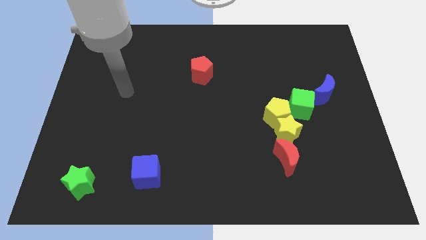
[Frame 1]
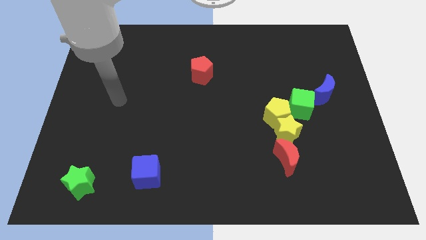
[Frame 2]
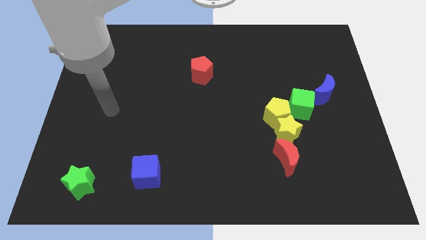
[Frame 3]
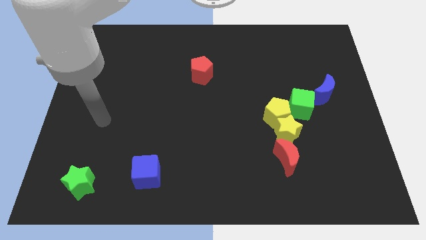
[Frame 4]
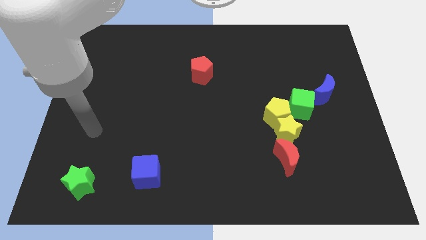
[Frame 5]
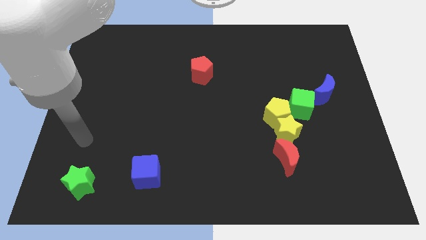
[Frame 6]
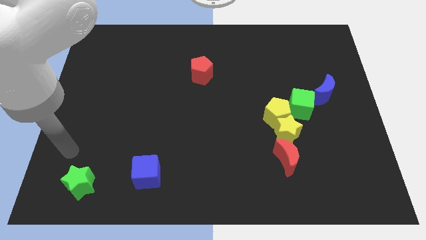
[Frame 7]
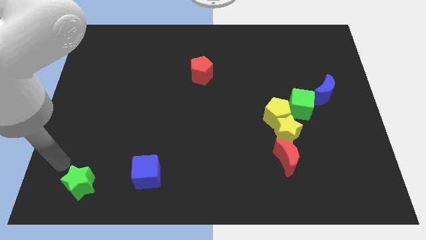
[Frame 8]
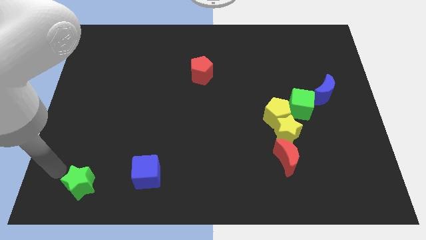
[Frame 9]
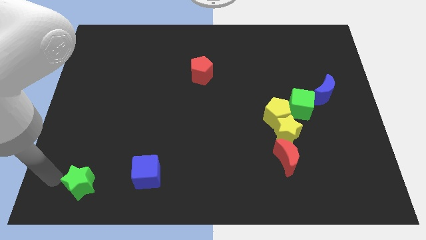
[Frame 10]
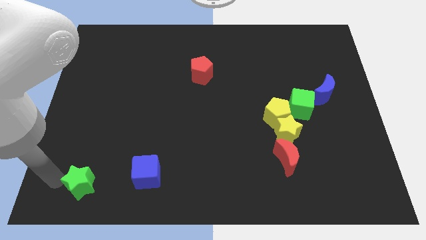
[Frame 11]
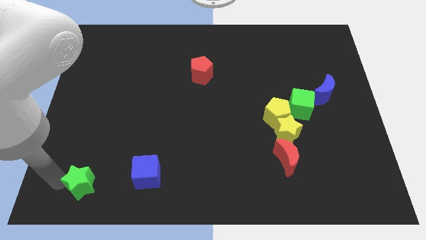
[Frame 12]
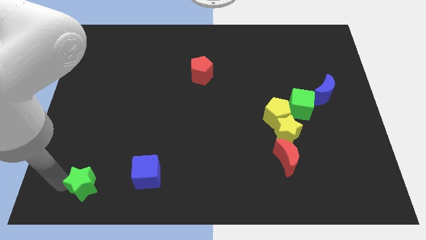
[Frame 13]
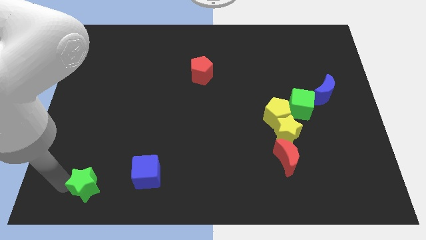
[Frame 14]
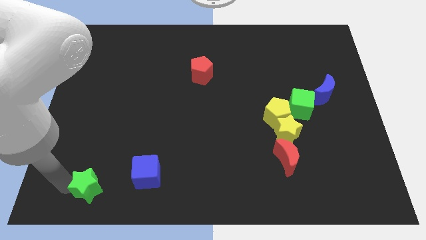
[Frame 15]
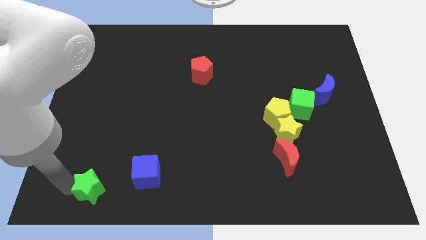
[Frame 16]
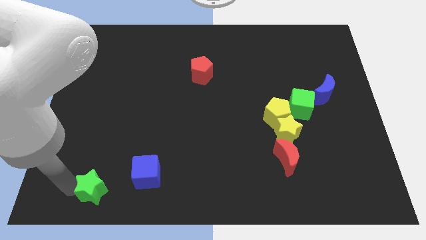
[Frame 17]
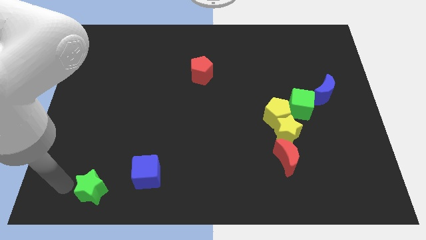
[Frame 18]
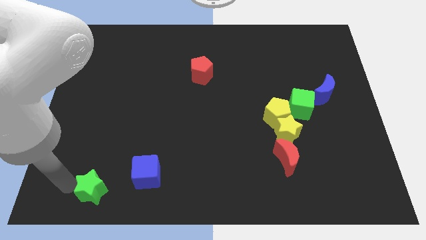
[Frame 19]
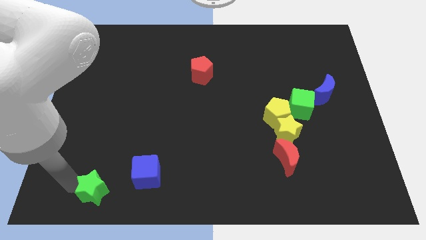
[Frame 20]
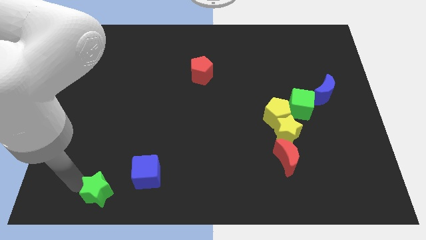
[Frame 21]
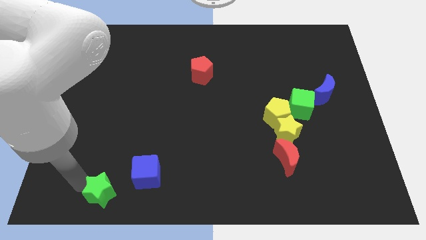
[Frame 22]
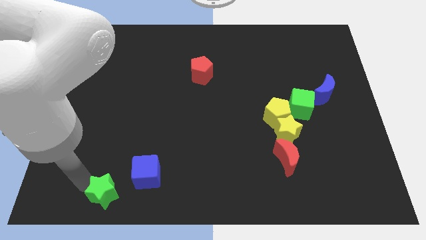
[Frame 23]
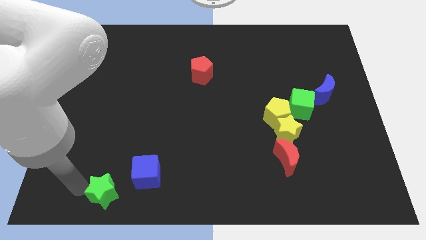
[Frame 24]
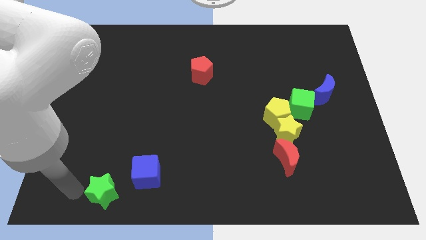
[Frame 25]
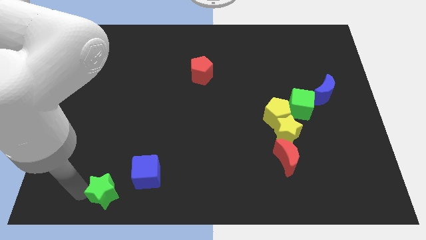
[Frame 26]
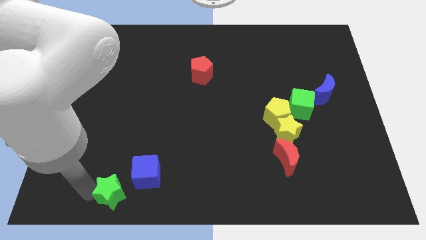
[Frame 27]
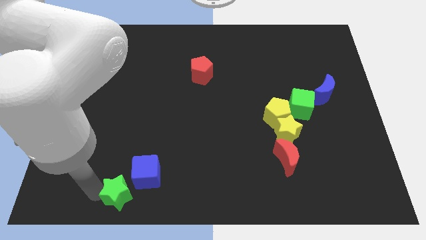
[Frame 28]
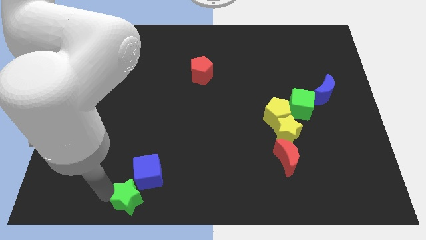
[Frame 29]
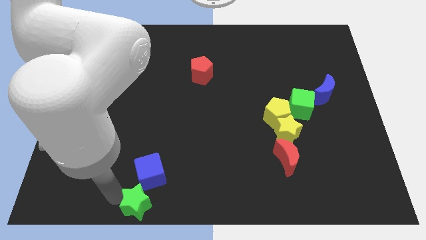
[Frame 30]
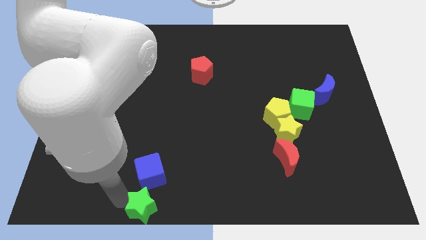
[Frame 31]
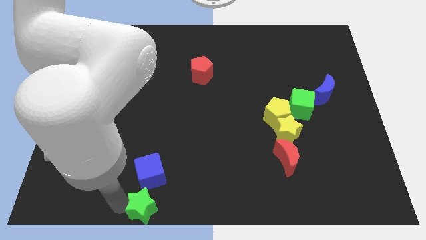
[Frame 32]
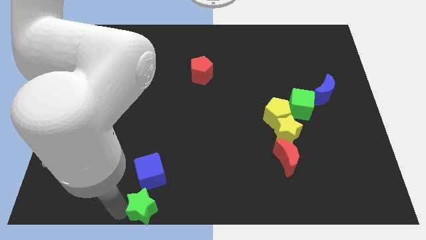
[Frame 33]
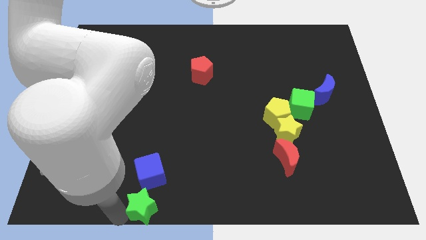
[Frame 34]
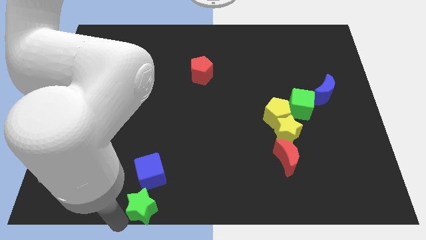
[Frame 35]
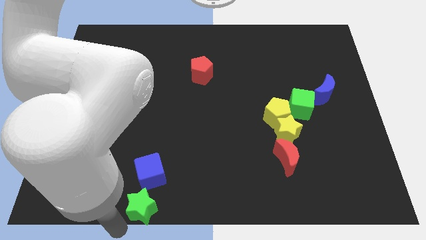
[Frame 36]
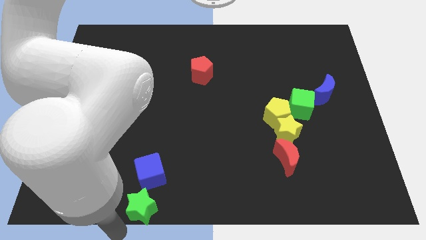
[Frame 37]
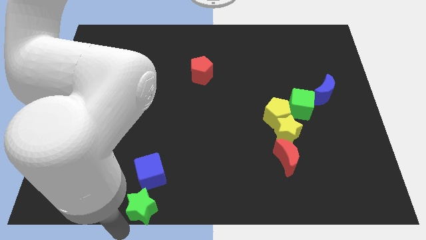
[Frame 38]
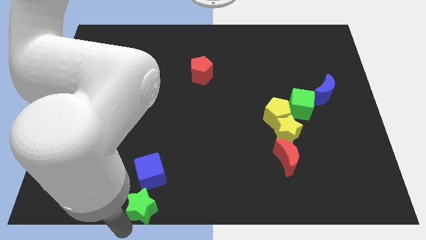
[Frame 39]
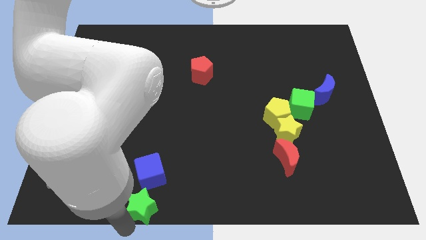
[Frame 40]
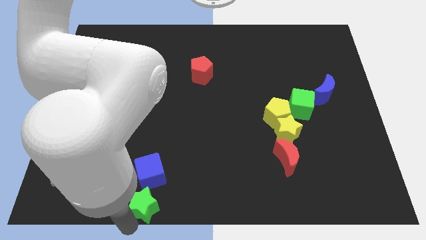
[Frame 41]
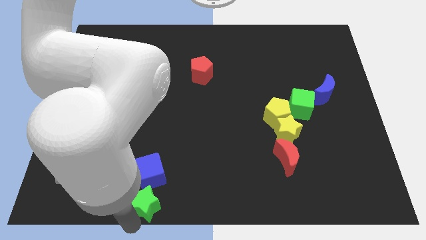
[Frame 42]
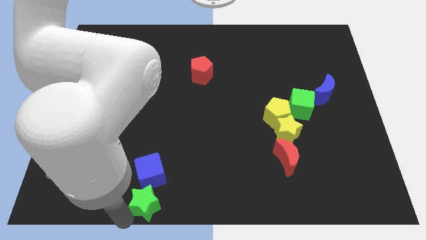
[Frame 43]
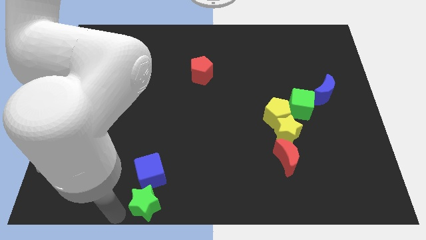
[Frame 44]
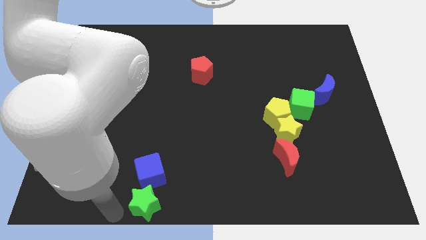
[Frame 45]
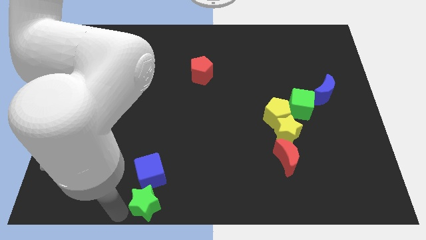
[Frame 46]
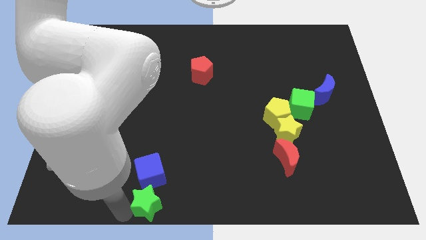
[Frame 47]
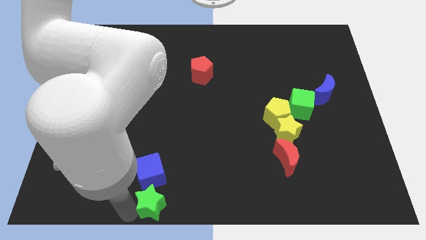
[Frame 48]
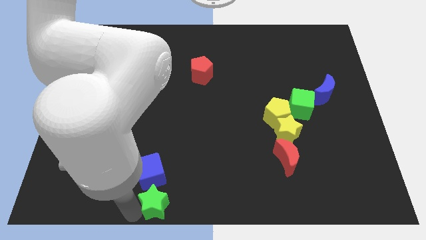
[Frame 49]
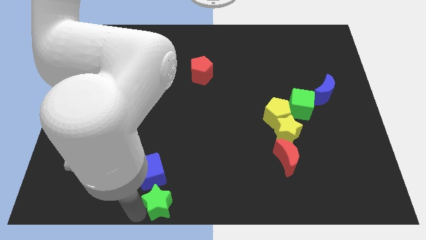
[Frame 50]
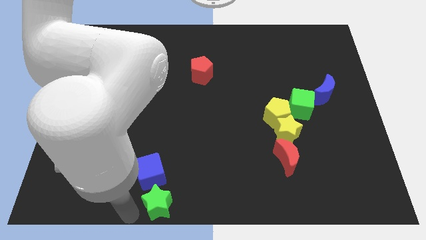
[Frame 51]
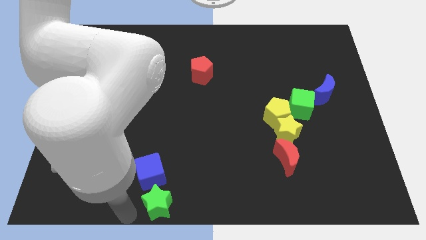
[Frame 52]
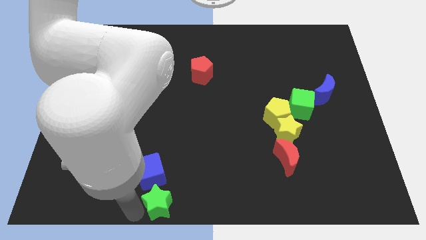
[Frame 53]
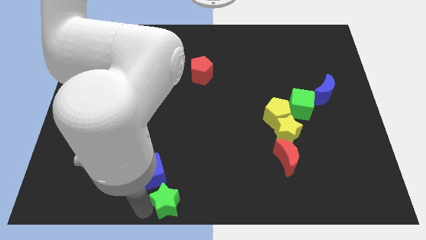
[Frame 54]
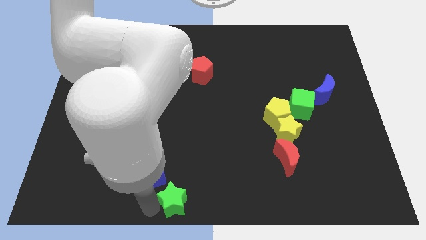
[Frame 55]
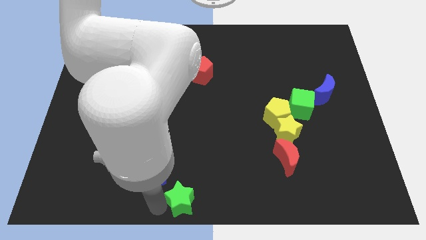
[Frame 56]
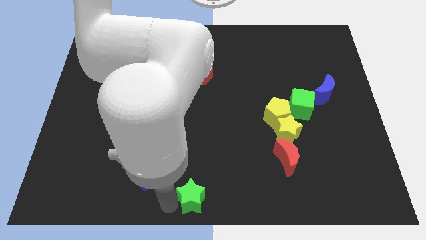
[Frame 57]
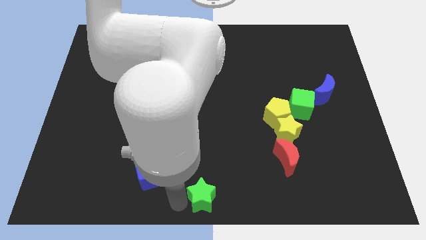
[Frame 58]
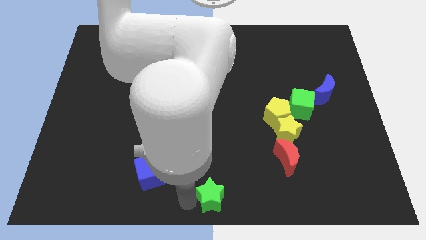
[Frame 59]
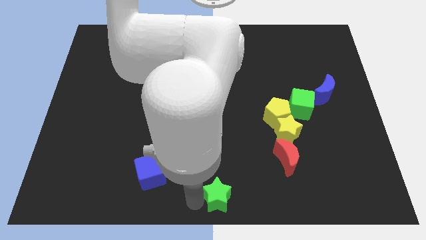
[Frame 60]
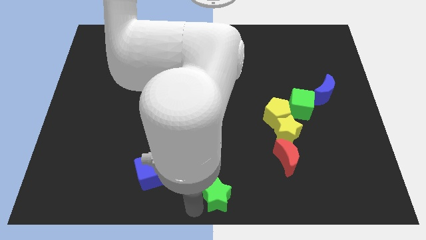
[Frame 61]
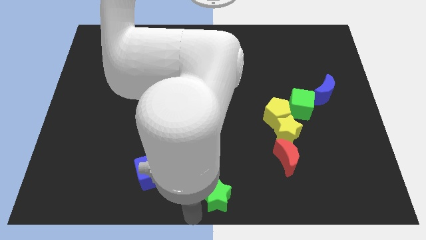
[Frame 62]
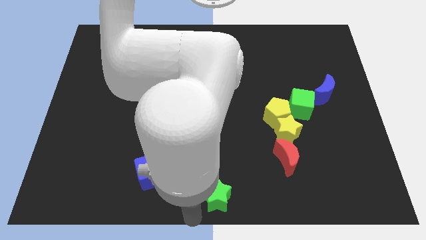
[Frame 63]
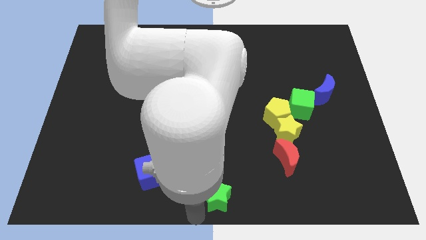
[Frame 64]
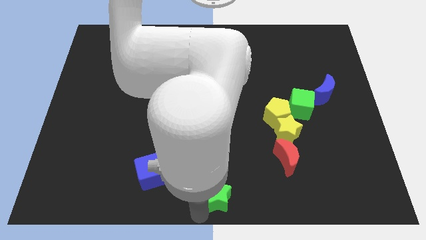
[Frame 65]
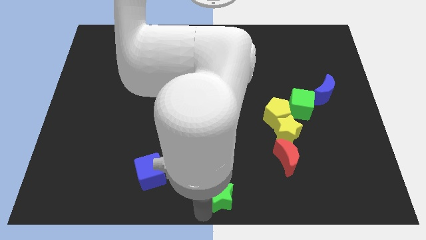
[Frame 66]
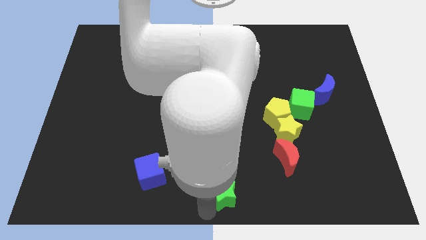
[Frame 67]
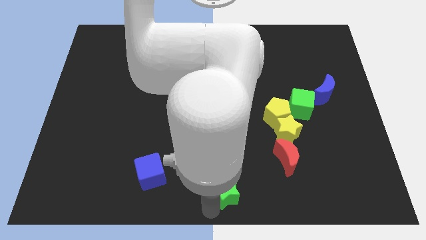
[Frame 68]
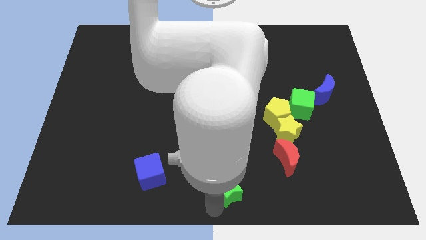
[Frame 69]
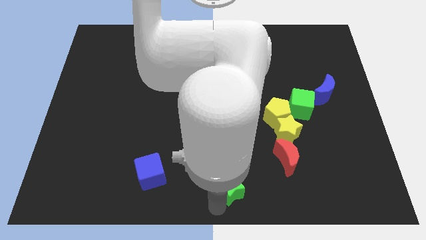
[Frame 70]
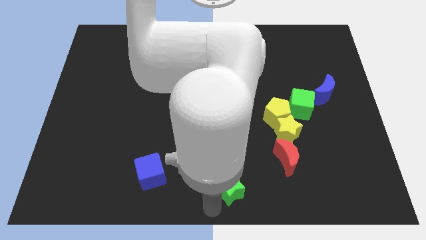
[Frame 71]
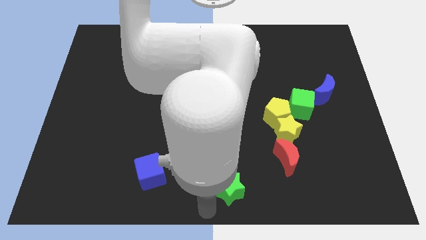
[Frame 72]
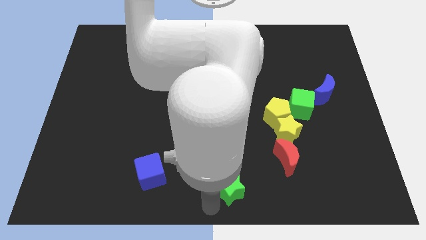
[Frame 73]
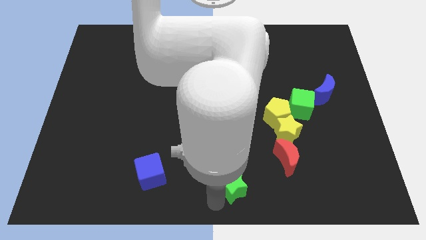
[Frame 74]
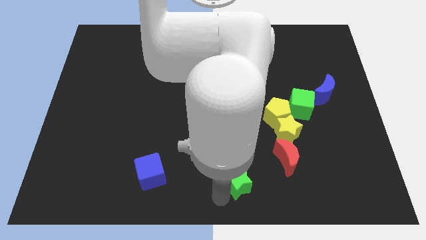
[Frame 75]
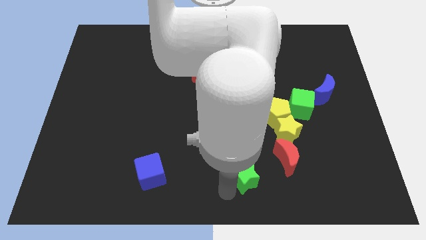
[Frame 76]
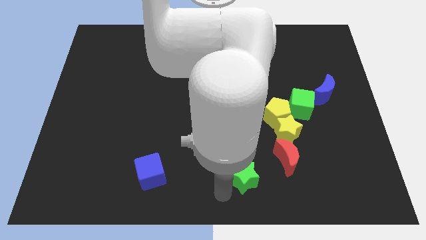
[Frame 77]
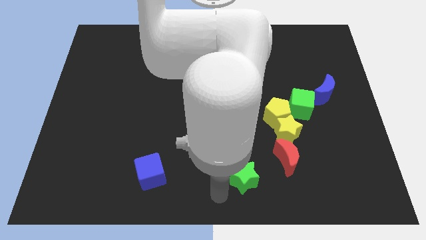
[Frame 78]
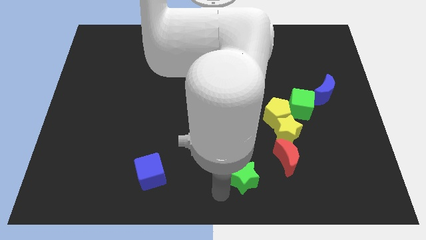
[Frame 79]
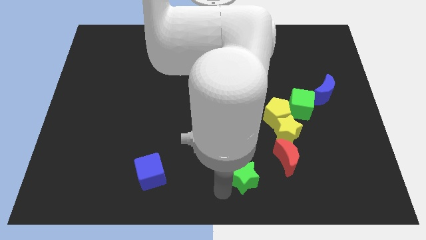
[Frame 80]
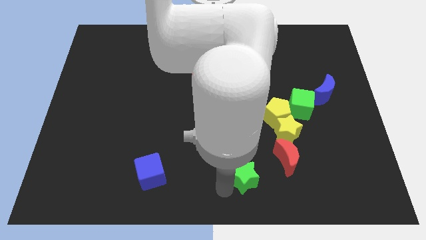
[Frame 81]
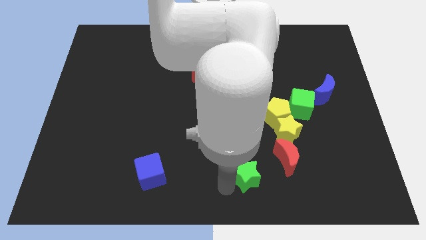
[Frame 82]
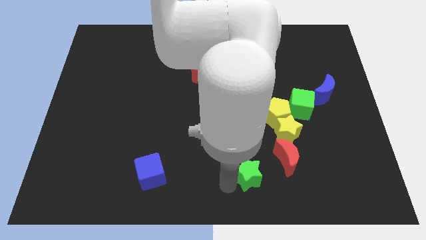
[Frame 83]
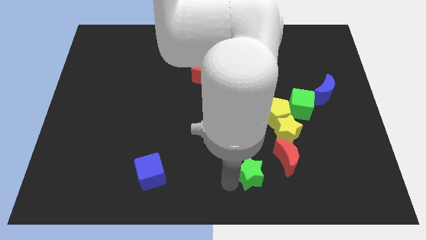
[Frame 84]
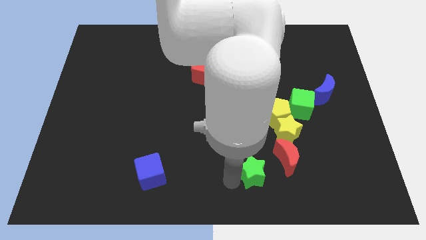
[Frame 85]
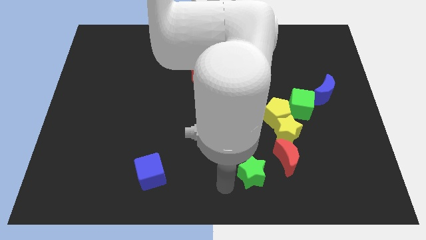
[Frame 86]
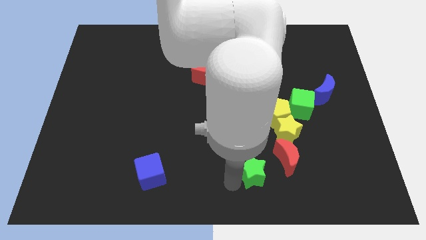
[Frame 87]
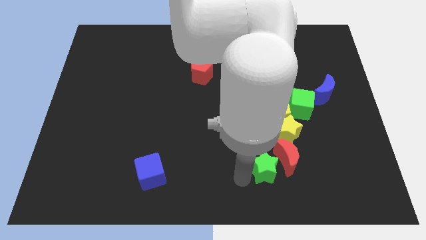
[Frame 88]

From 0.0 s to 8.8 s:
slide the green star close to the red moon
